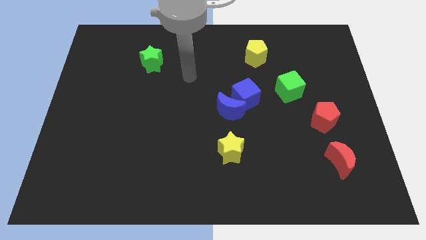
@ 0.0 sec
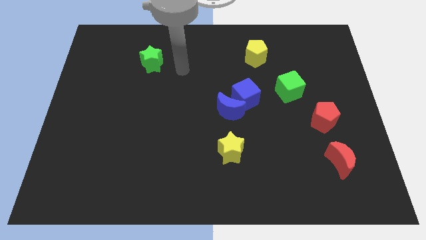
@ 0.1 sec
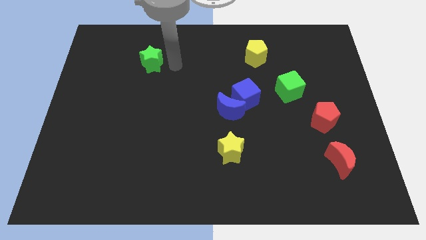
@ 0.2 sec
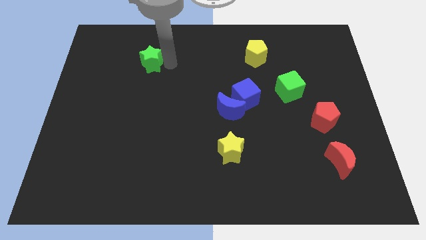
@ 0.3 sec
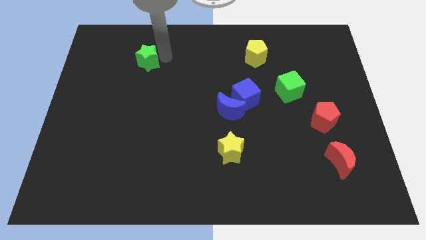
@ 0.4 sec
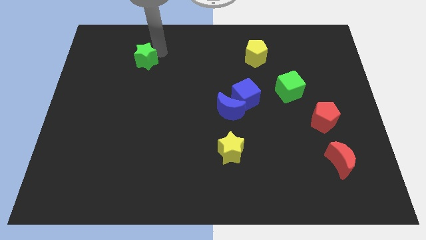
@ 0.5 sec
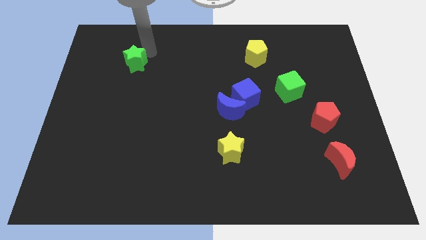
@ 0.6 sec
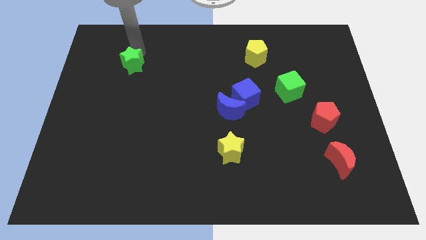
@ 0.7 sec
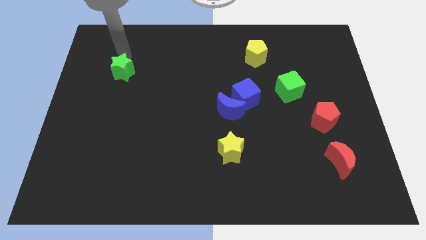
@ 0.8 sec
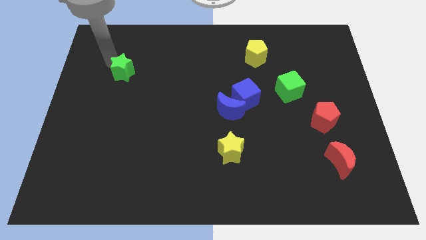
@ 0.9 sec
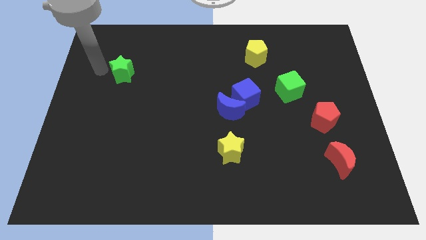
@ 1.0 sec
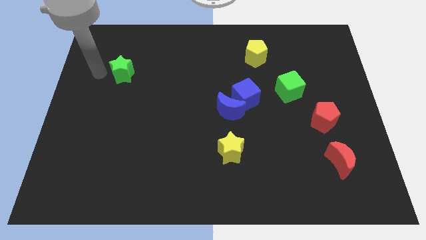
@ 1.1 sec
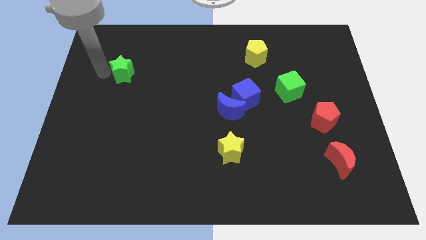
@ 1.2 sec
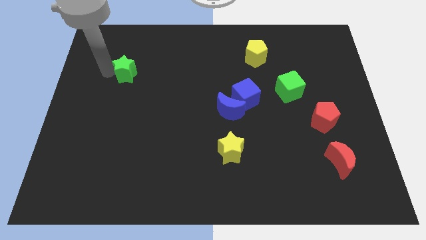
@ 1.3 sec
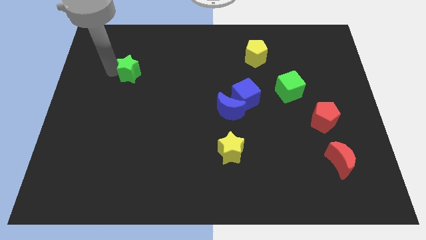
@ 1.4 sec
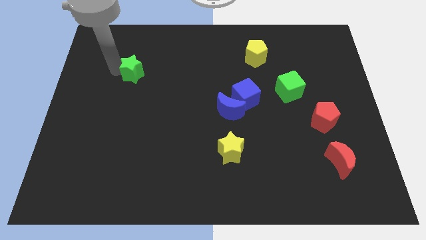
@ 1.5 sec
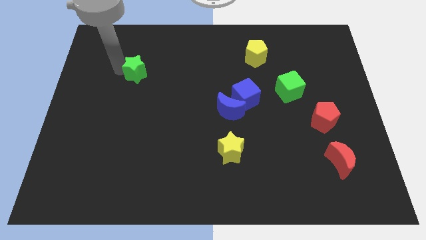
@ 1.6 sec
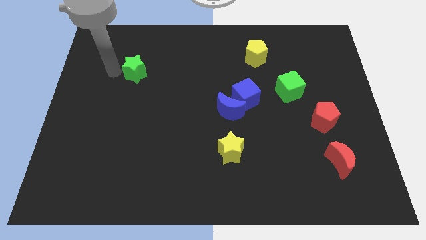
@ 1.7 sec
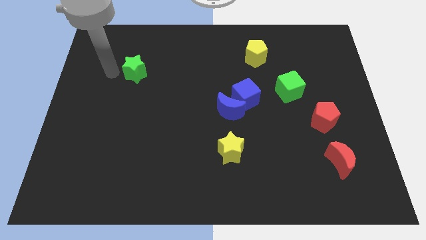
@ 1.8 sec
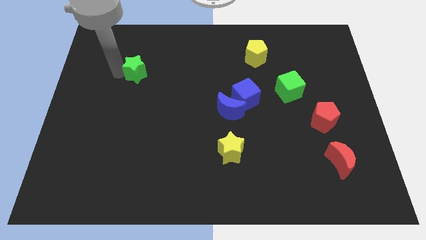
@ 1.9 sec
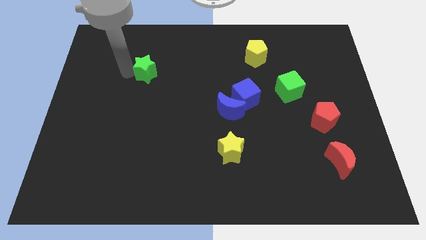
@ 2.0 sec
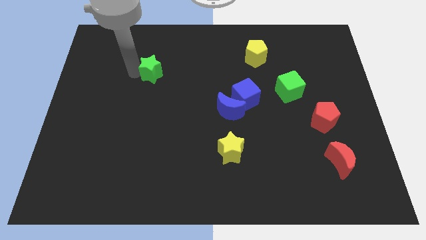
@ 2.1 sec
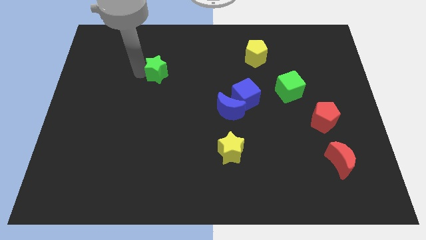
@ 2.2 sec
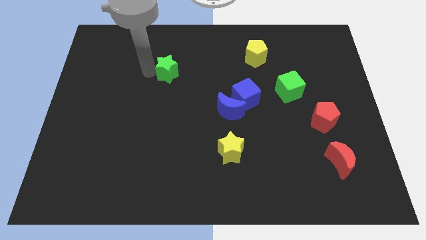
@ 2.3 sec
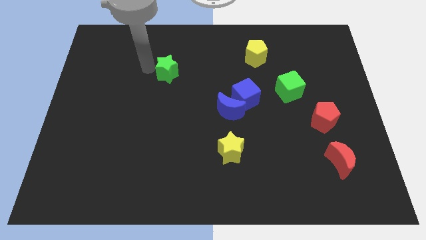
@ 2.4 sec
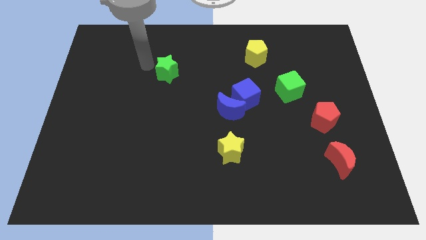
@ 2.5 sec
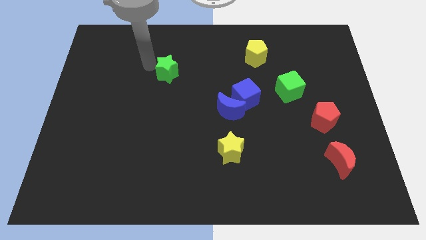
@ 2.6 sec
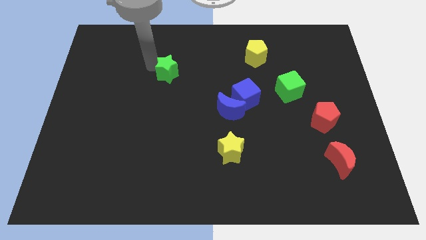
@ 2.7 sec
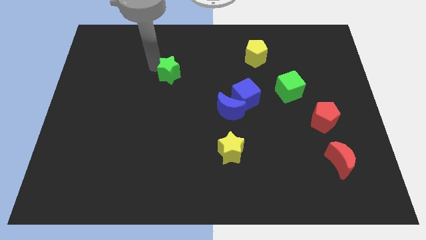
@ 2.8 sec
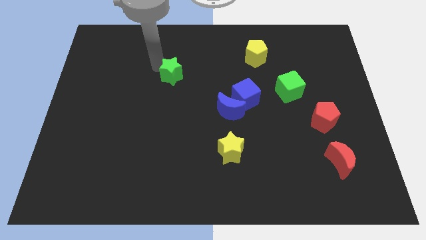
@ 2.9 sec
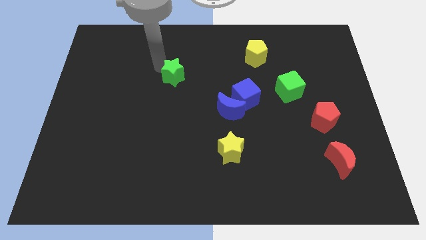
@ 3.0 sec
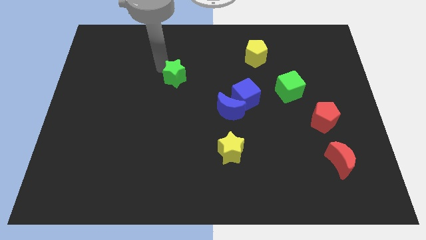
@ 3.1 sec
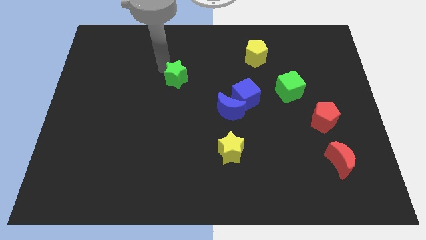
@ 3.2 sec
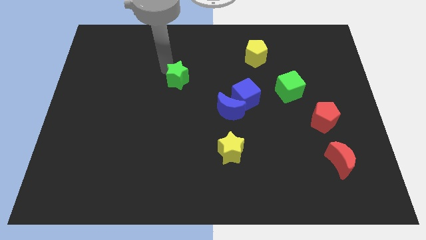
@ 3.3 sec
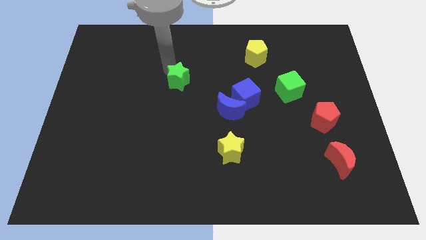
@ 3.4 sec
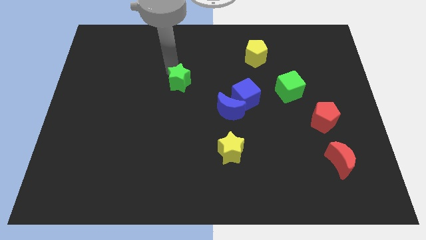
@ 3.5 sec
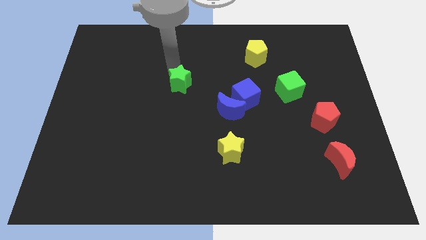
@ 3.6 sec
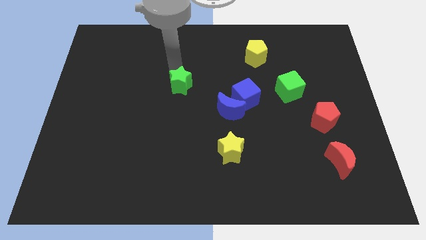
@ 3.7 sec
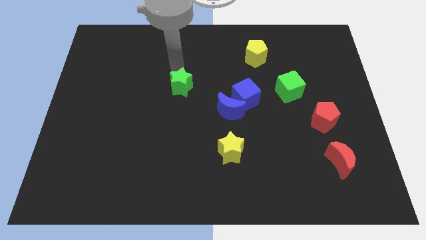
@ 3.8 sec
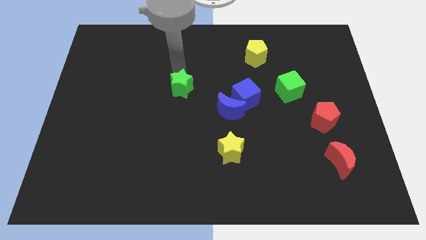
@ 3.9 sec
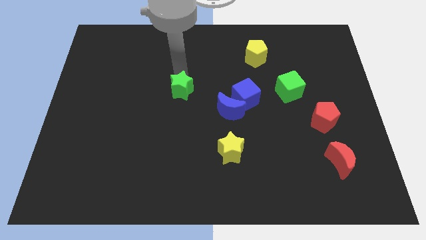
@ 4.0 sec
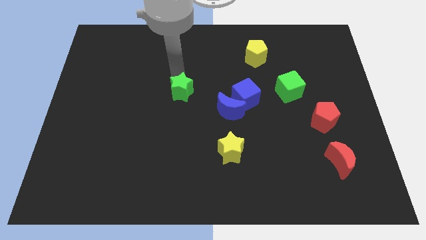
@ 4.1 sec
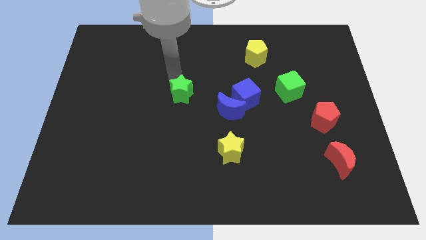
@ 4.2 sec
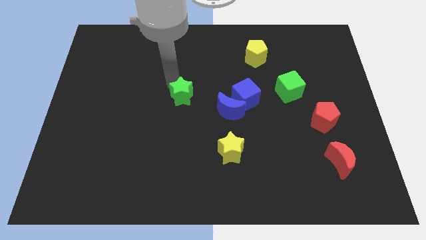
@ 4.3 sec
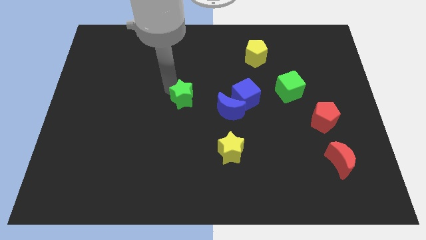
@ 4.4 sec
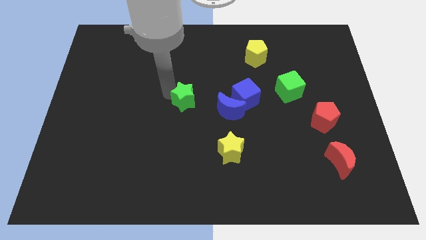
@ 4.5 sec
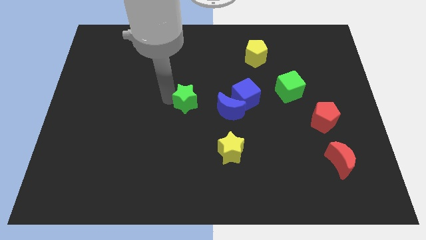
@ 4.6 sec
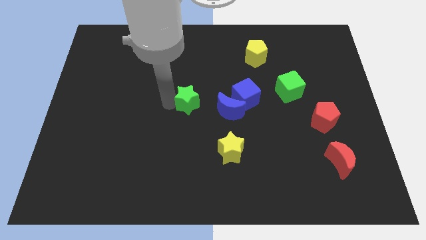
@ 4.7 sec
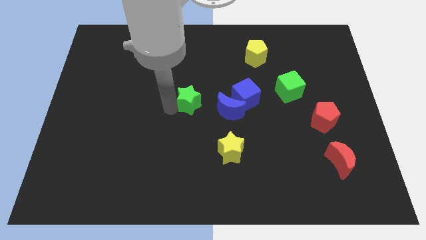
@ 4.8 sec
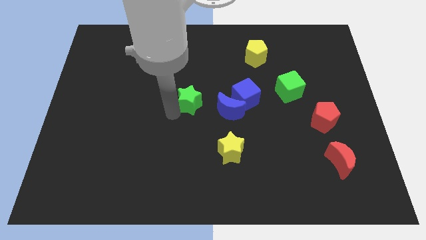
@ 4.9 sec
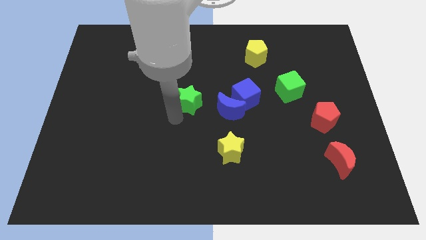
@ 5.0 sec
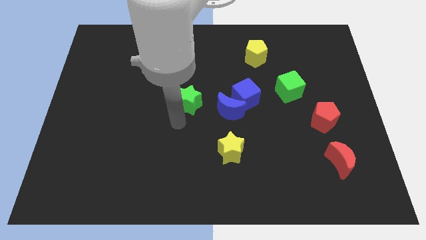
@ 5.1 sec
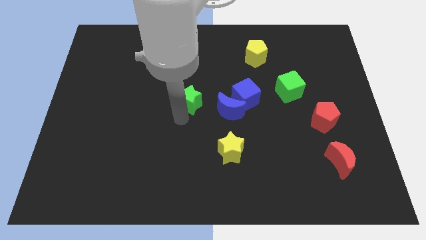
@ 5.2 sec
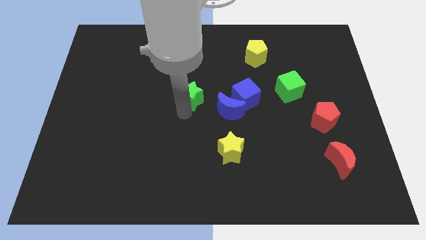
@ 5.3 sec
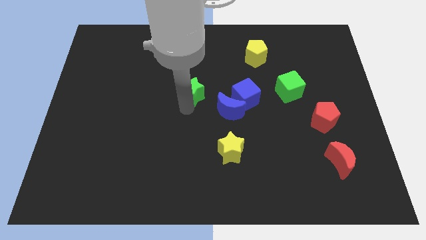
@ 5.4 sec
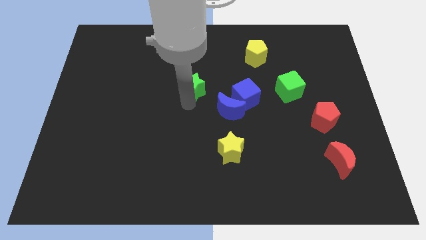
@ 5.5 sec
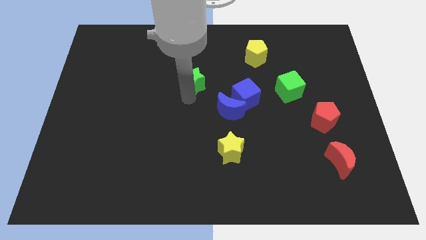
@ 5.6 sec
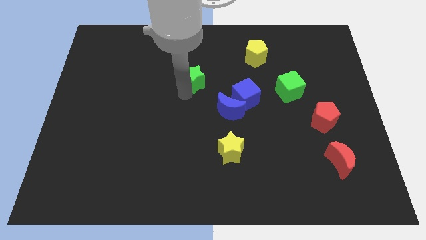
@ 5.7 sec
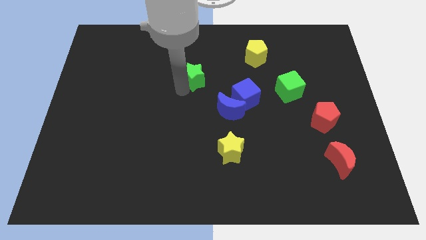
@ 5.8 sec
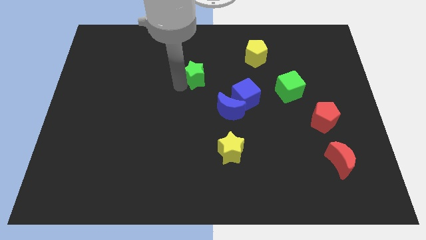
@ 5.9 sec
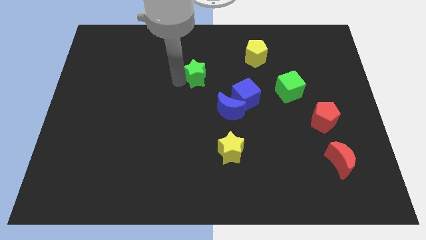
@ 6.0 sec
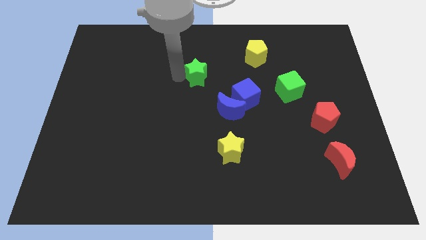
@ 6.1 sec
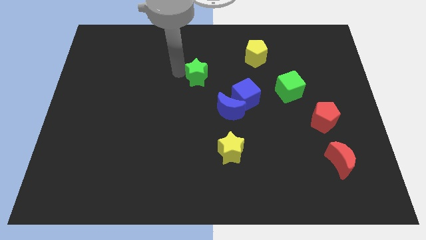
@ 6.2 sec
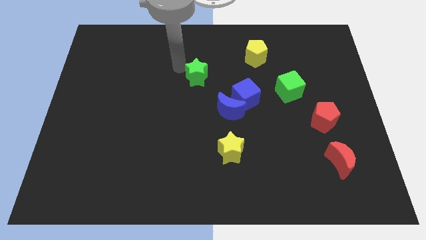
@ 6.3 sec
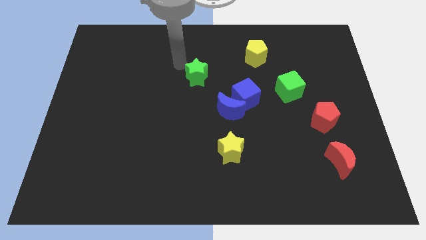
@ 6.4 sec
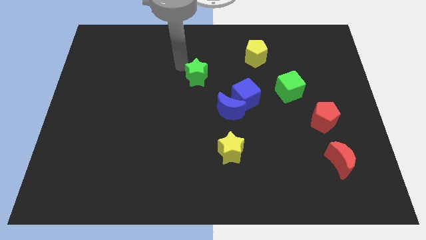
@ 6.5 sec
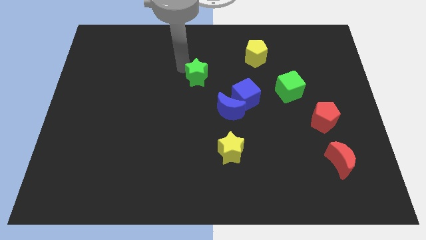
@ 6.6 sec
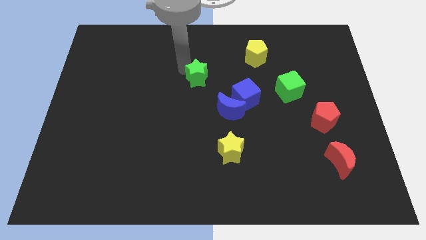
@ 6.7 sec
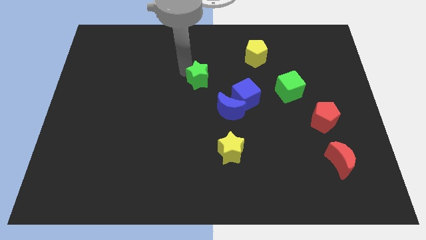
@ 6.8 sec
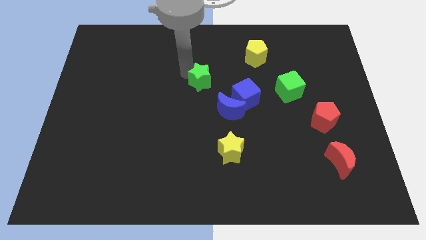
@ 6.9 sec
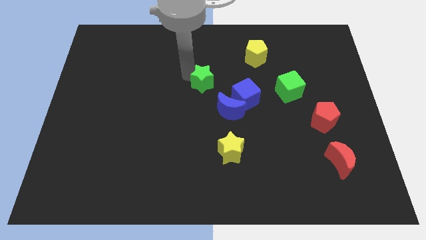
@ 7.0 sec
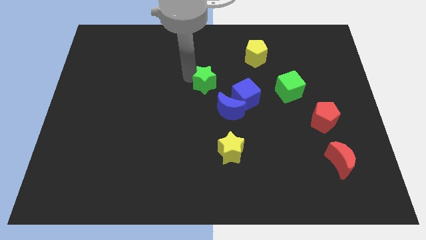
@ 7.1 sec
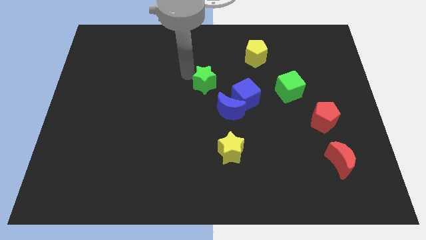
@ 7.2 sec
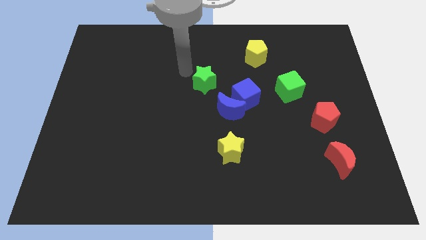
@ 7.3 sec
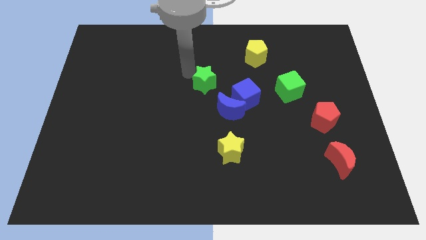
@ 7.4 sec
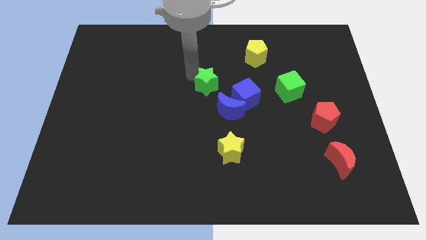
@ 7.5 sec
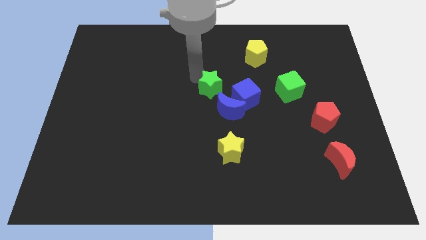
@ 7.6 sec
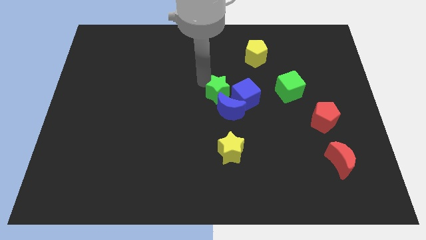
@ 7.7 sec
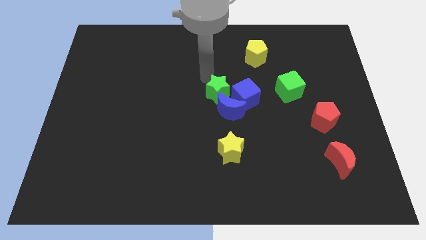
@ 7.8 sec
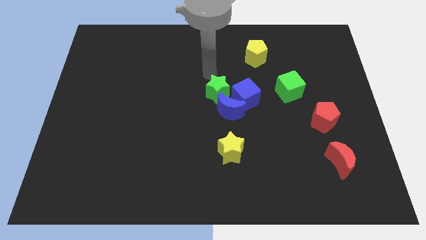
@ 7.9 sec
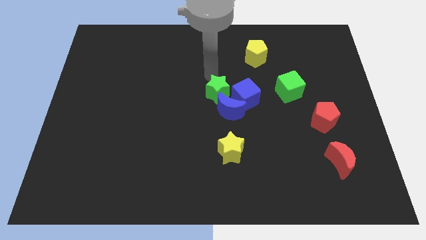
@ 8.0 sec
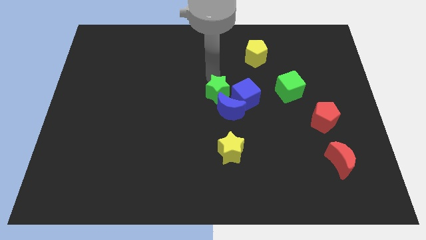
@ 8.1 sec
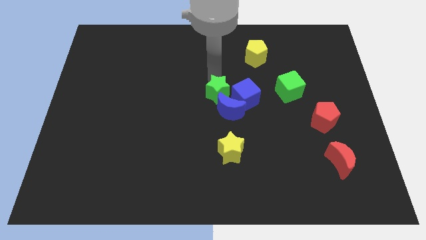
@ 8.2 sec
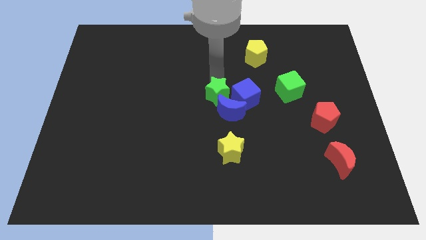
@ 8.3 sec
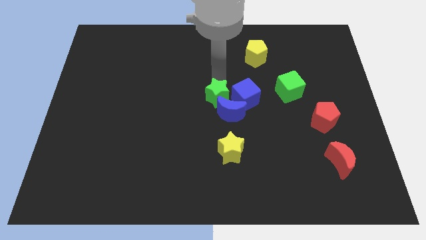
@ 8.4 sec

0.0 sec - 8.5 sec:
move the green star to the top side of the yellow star
